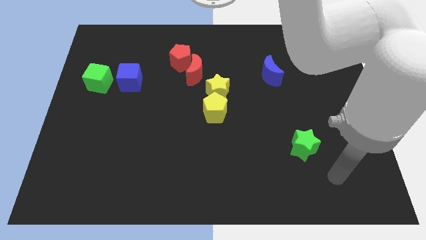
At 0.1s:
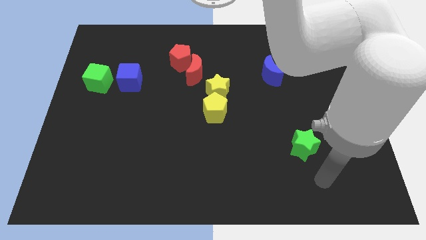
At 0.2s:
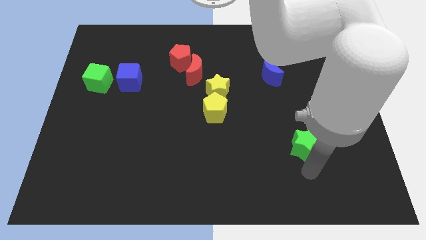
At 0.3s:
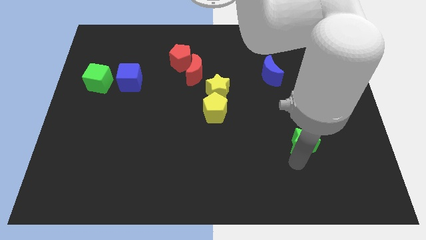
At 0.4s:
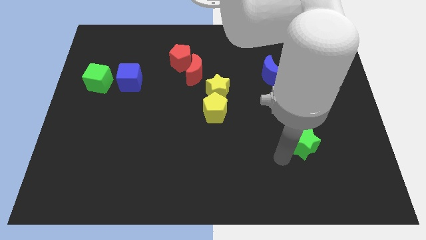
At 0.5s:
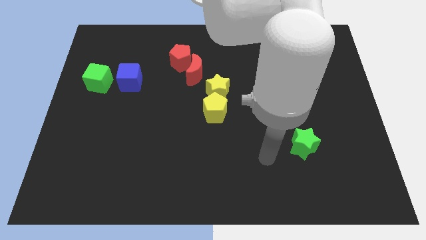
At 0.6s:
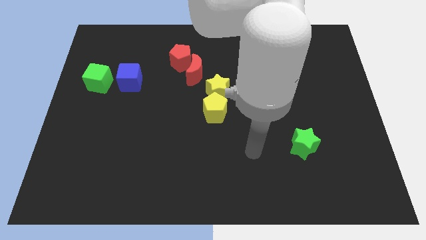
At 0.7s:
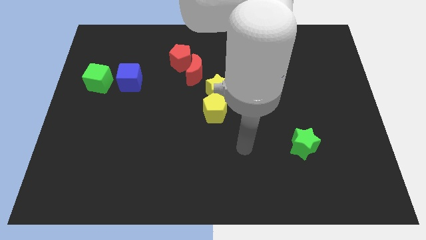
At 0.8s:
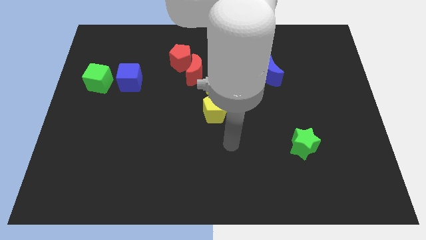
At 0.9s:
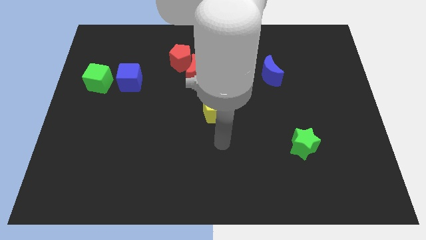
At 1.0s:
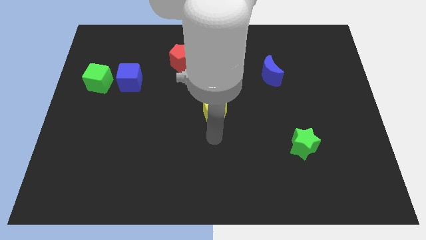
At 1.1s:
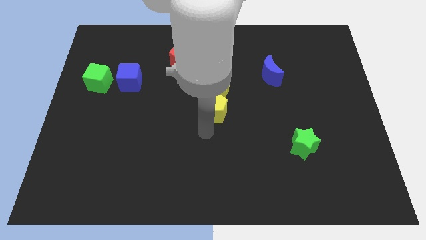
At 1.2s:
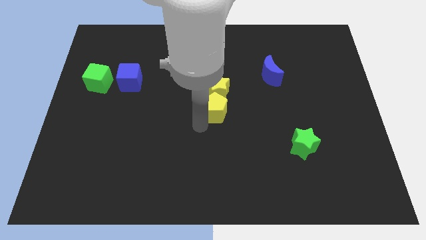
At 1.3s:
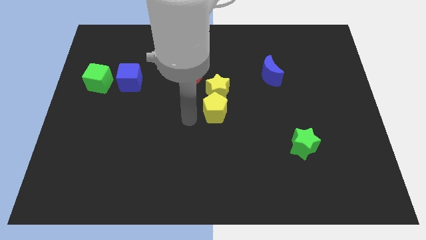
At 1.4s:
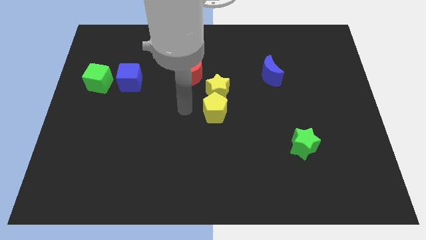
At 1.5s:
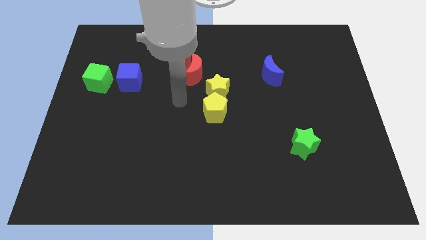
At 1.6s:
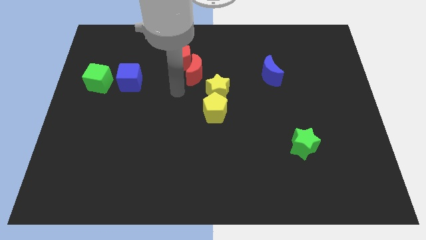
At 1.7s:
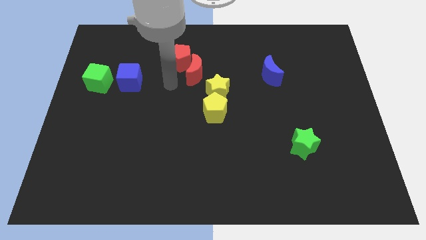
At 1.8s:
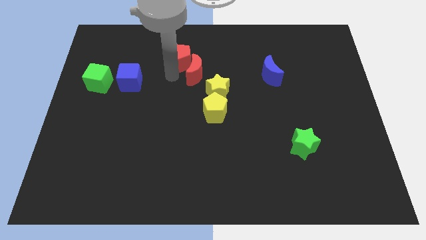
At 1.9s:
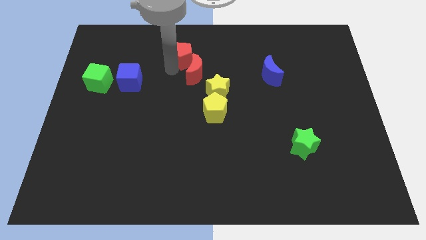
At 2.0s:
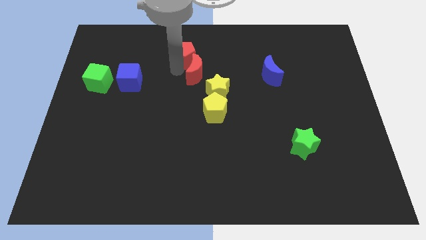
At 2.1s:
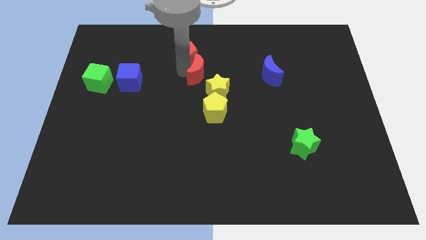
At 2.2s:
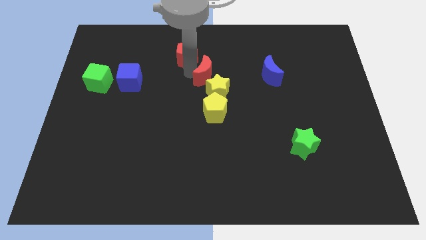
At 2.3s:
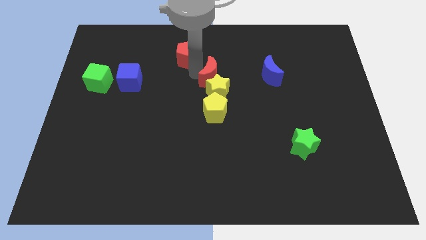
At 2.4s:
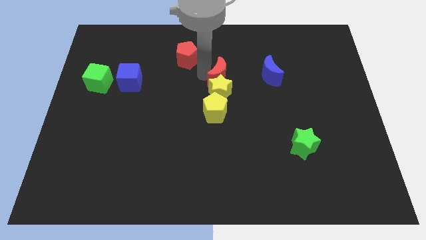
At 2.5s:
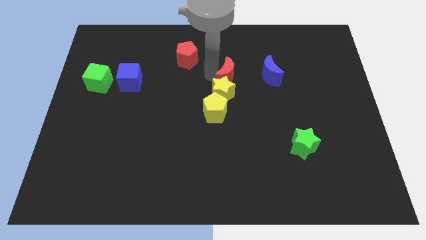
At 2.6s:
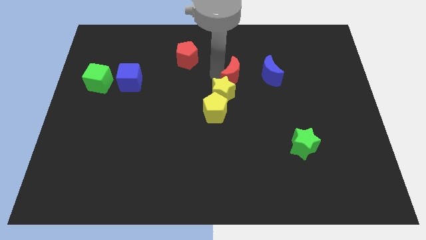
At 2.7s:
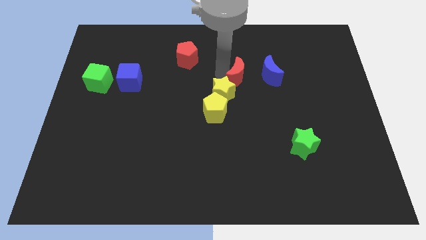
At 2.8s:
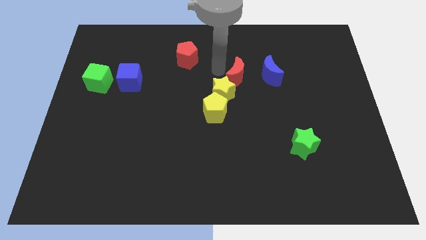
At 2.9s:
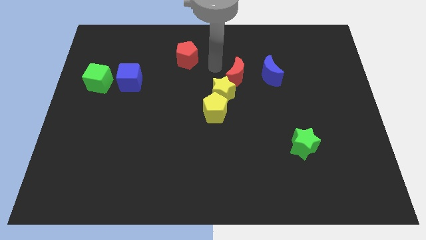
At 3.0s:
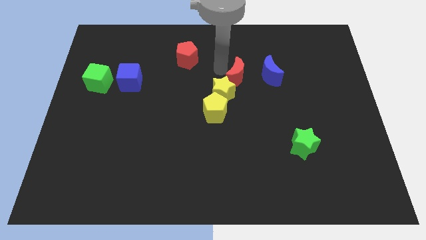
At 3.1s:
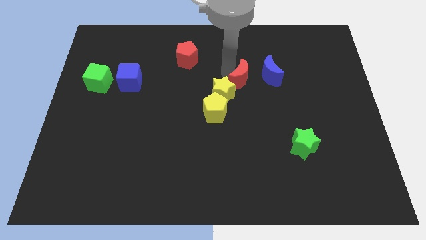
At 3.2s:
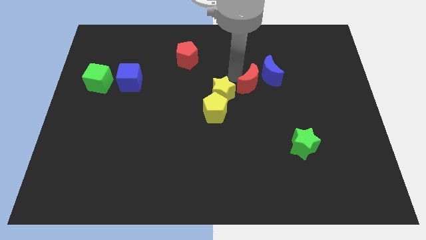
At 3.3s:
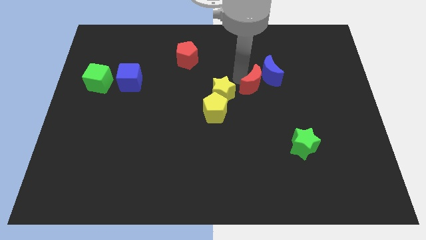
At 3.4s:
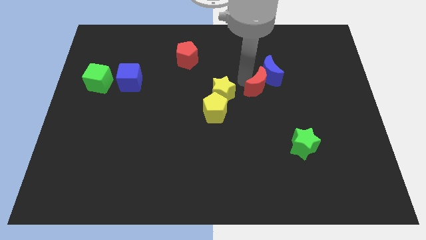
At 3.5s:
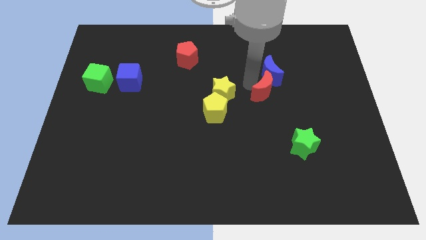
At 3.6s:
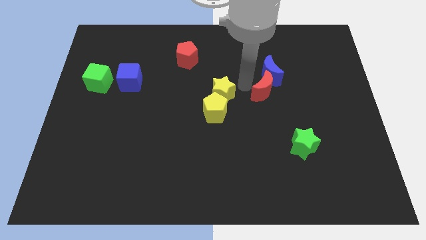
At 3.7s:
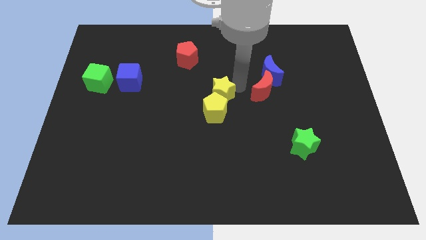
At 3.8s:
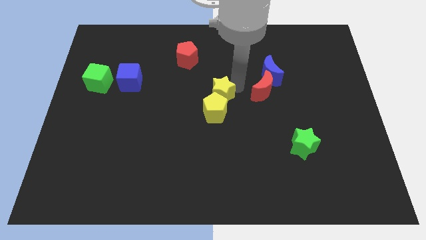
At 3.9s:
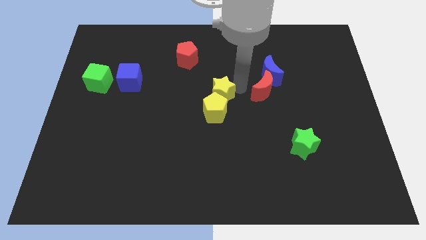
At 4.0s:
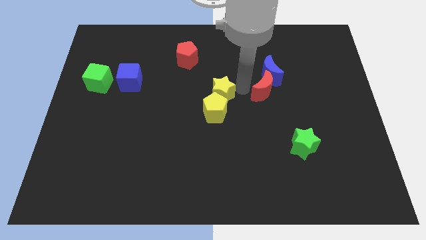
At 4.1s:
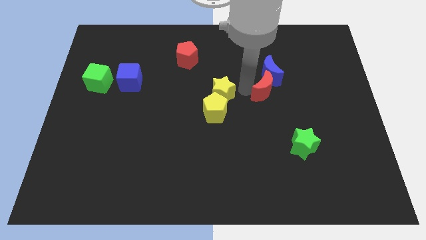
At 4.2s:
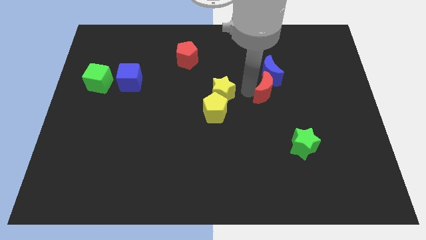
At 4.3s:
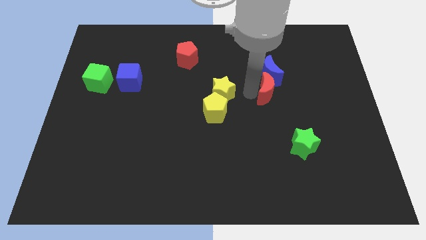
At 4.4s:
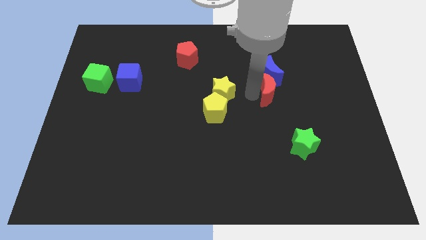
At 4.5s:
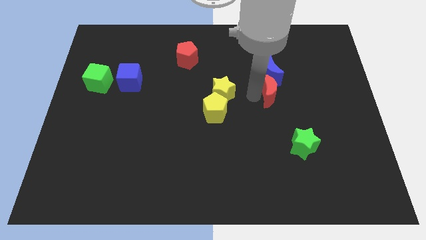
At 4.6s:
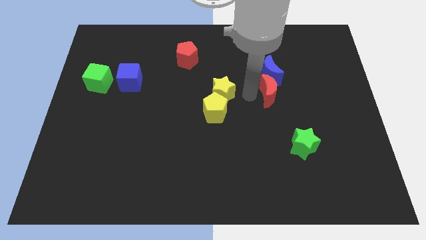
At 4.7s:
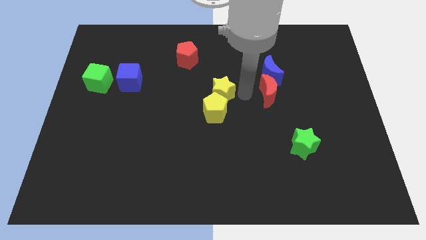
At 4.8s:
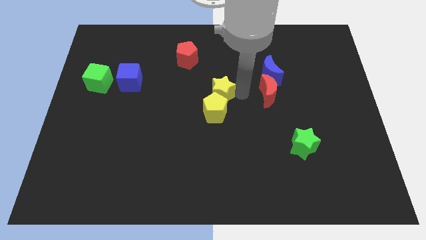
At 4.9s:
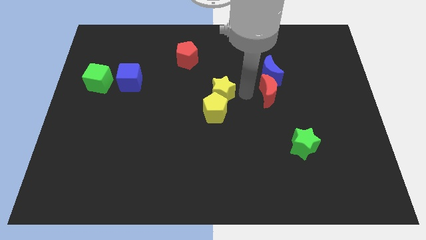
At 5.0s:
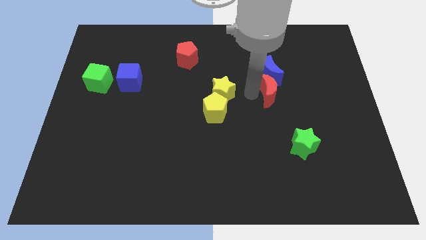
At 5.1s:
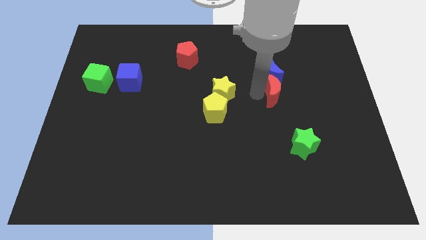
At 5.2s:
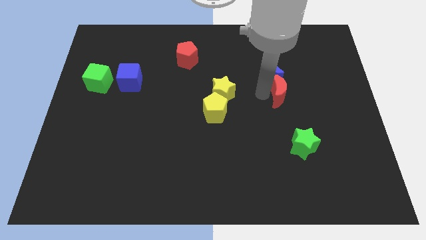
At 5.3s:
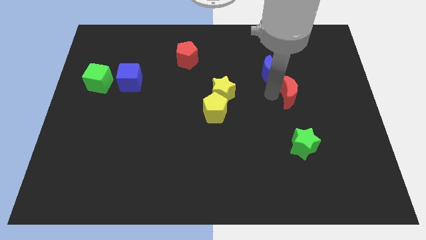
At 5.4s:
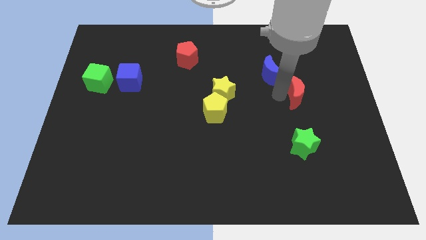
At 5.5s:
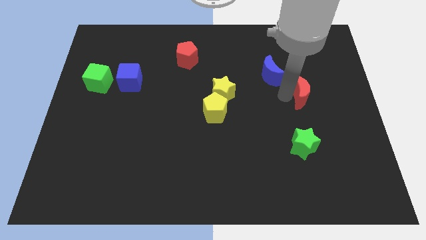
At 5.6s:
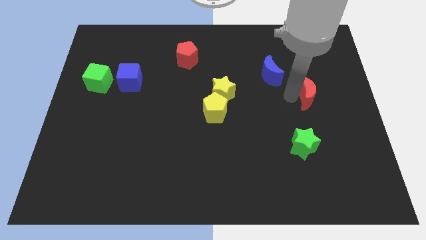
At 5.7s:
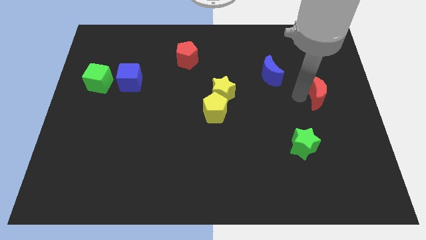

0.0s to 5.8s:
move the red moon to the right side
